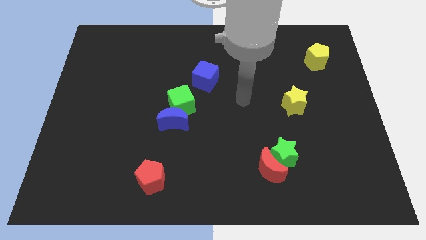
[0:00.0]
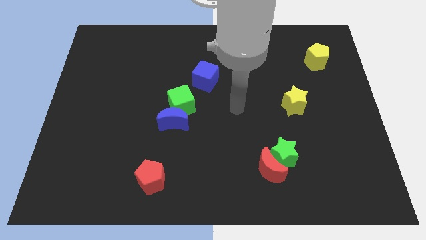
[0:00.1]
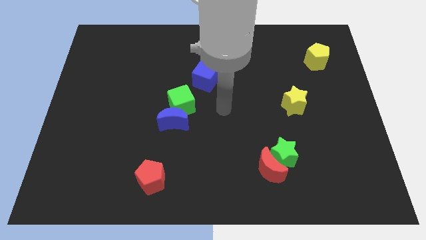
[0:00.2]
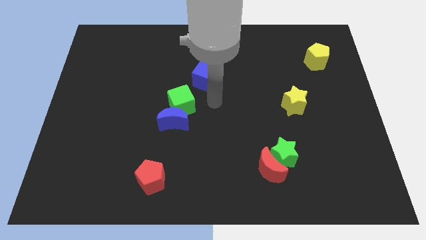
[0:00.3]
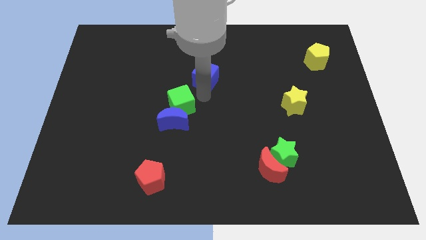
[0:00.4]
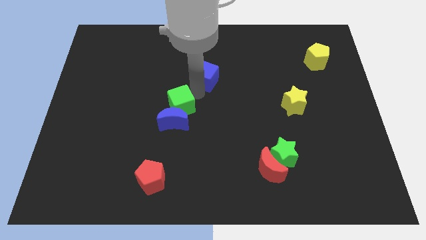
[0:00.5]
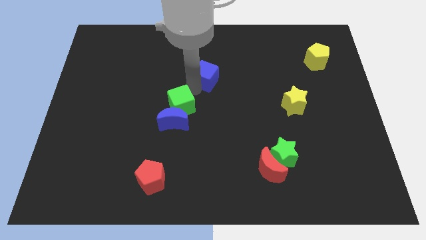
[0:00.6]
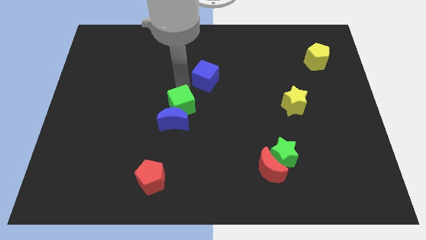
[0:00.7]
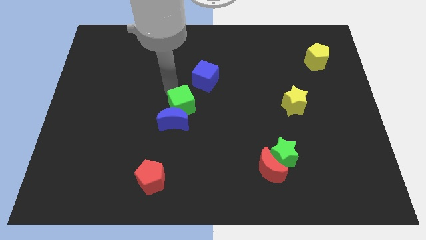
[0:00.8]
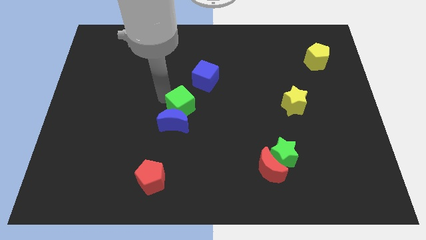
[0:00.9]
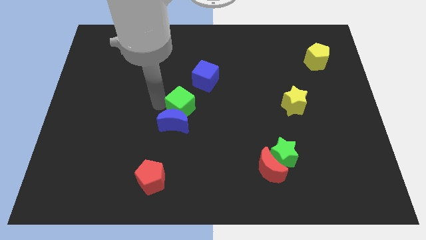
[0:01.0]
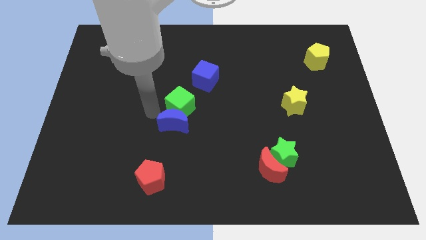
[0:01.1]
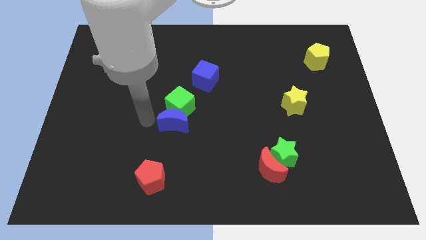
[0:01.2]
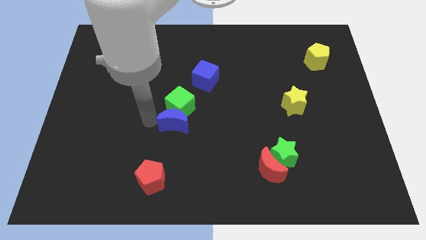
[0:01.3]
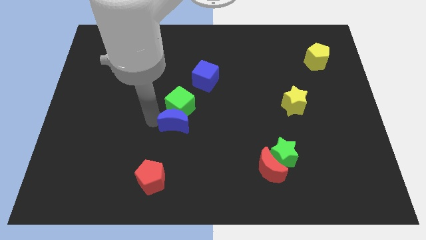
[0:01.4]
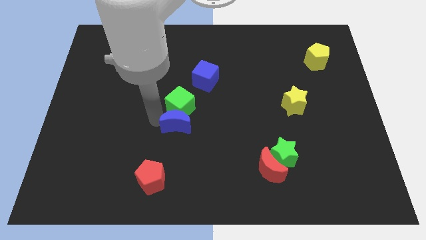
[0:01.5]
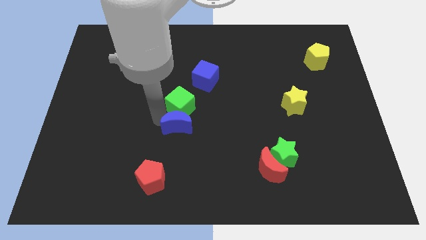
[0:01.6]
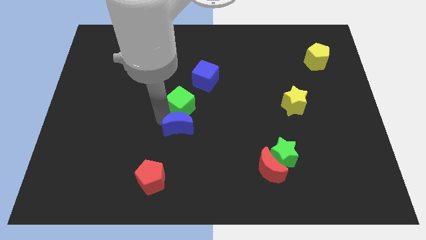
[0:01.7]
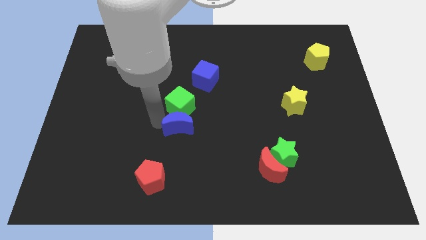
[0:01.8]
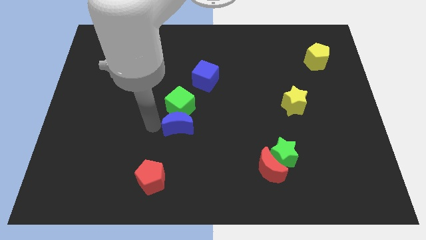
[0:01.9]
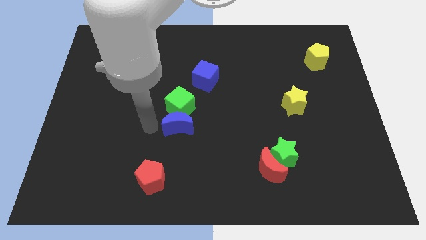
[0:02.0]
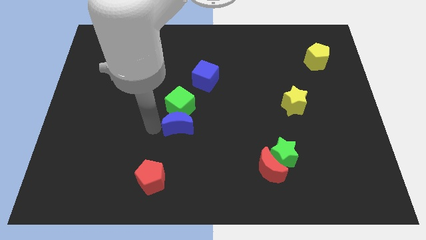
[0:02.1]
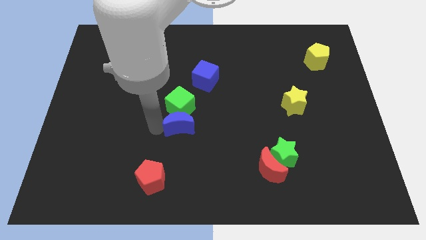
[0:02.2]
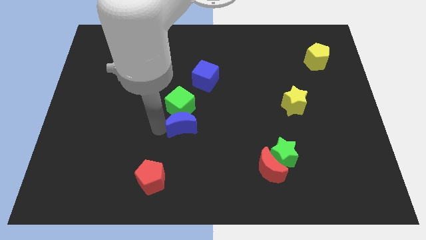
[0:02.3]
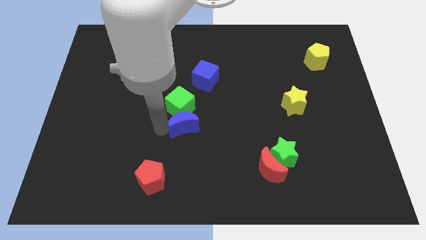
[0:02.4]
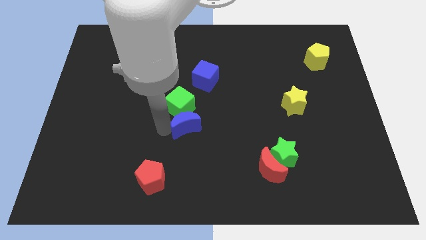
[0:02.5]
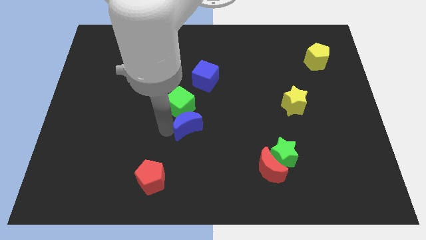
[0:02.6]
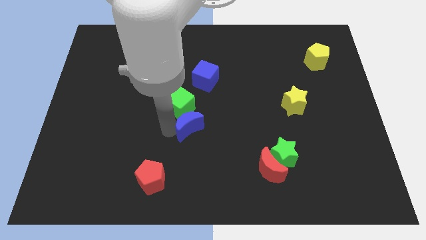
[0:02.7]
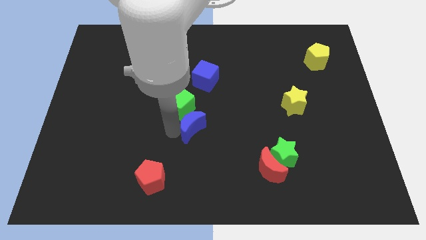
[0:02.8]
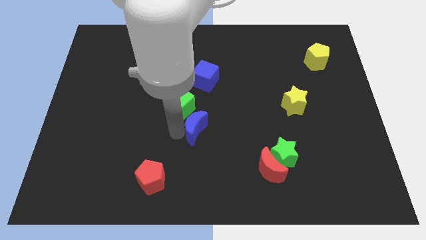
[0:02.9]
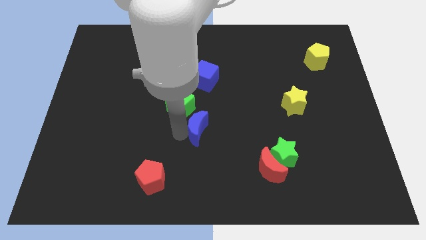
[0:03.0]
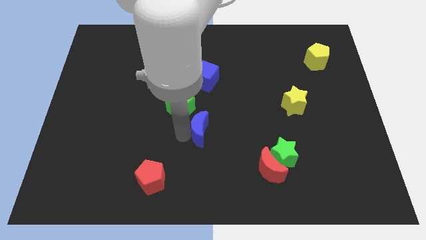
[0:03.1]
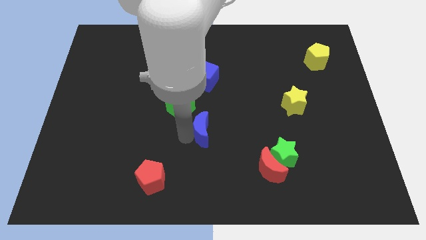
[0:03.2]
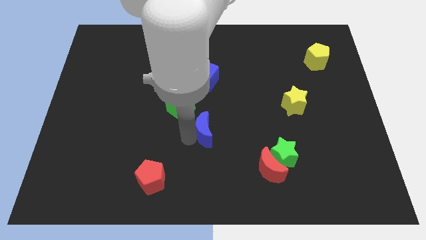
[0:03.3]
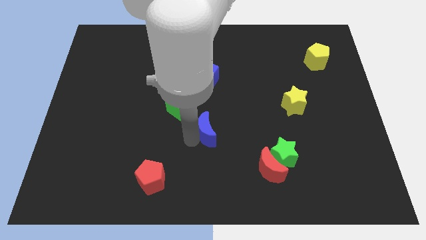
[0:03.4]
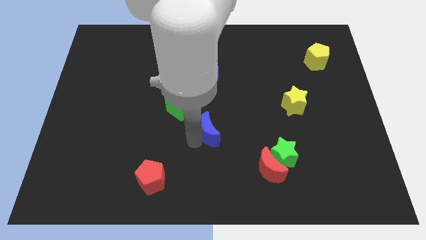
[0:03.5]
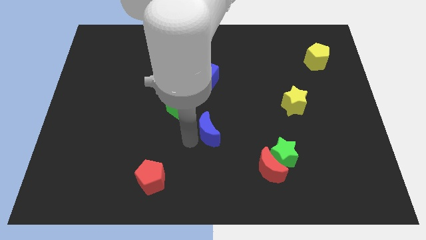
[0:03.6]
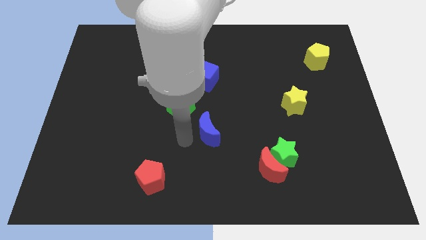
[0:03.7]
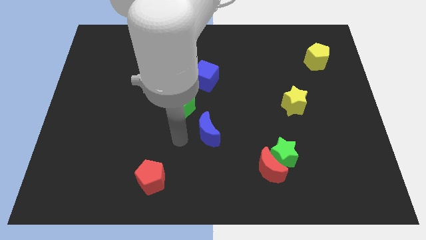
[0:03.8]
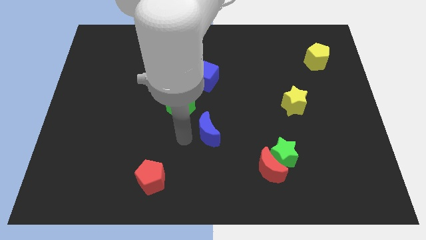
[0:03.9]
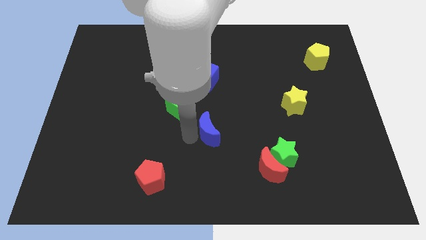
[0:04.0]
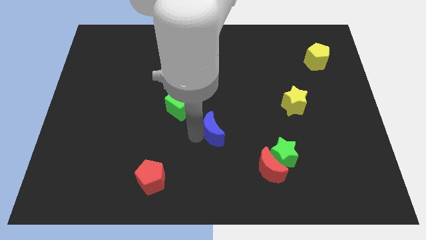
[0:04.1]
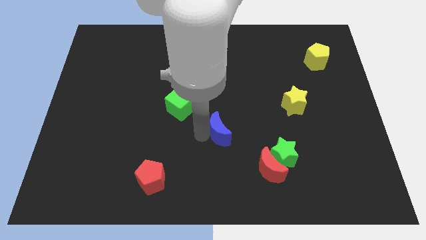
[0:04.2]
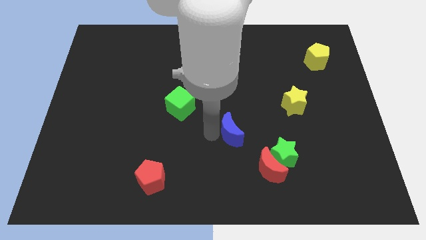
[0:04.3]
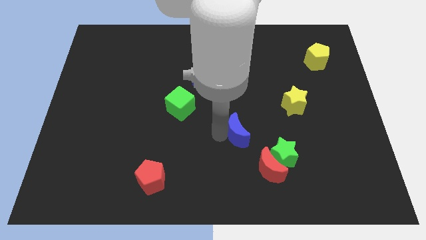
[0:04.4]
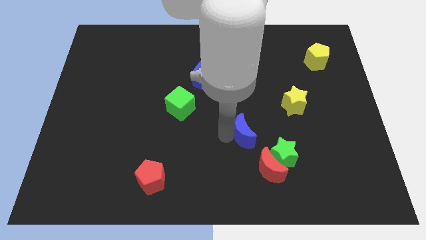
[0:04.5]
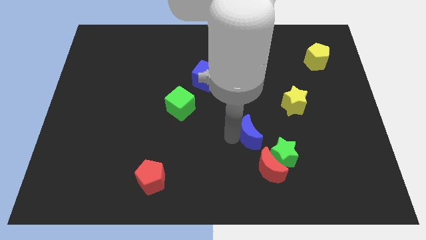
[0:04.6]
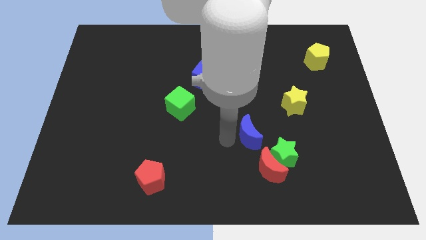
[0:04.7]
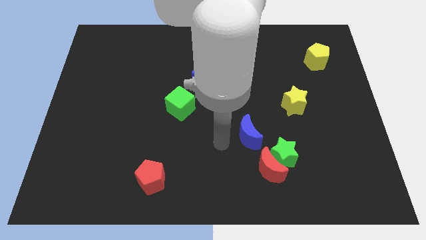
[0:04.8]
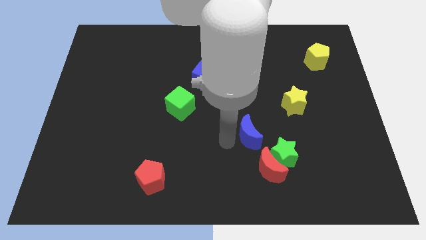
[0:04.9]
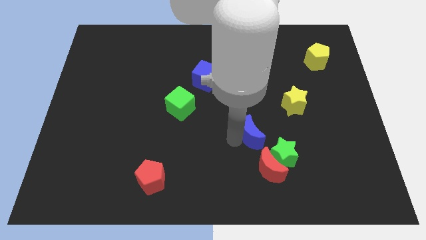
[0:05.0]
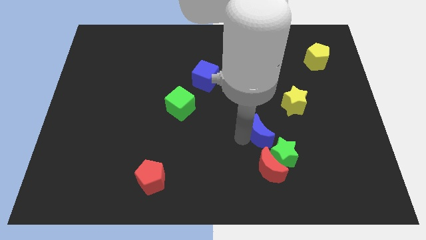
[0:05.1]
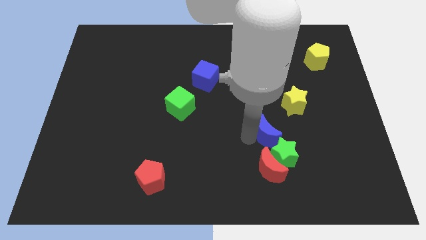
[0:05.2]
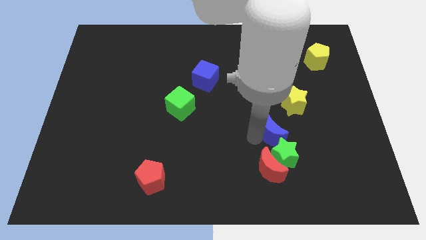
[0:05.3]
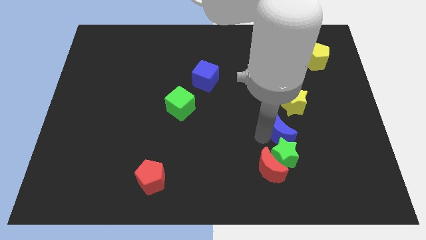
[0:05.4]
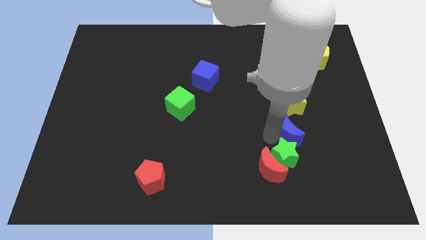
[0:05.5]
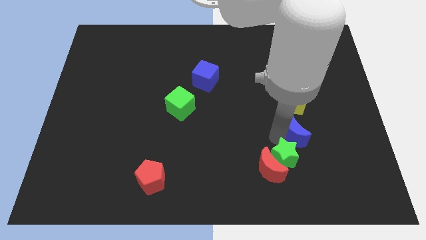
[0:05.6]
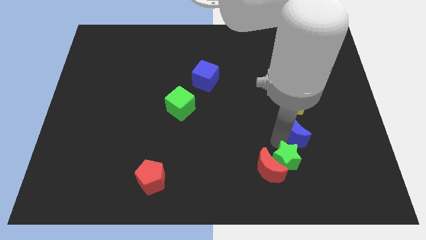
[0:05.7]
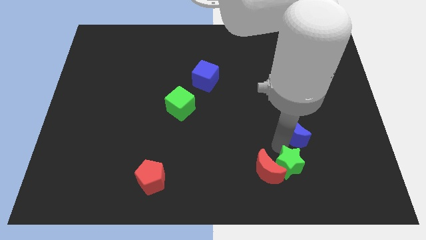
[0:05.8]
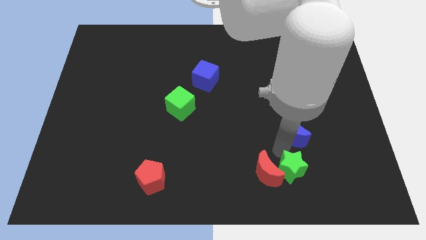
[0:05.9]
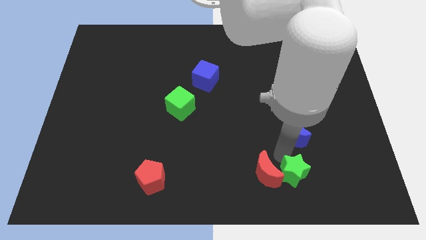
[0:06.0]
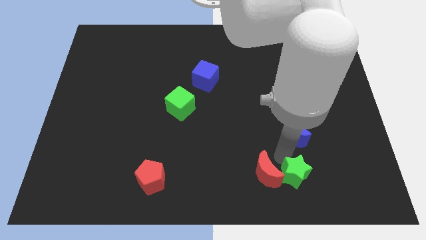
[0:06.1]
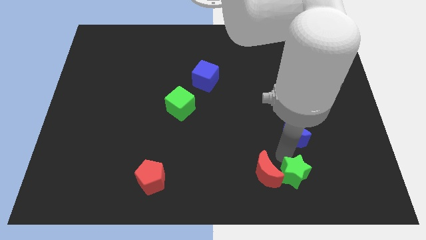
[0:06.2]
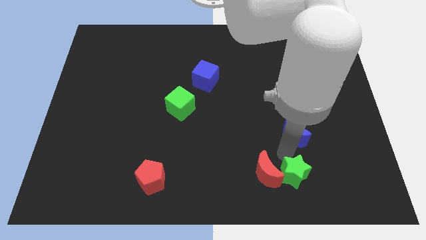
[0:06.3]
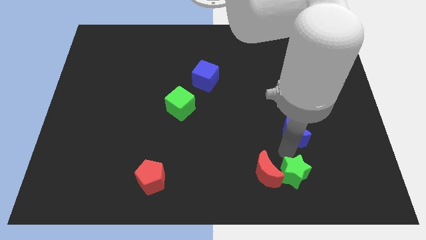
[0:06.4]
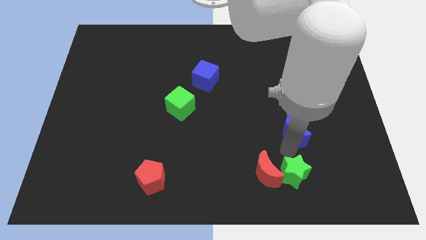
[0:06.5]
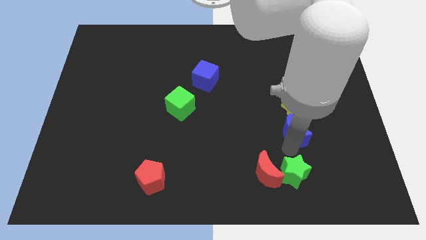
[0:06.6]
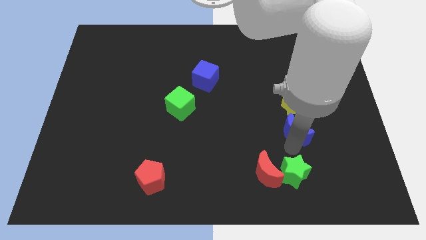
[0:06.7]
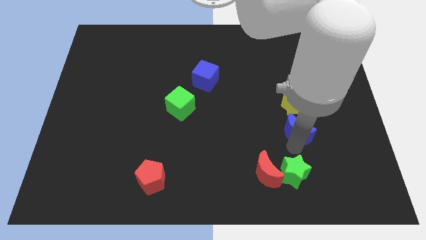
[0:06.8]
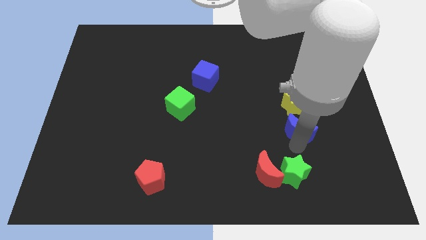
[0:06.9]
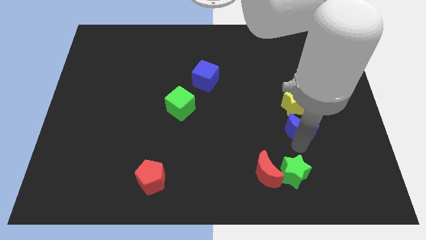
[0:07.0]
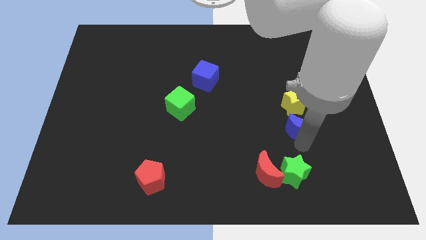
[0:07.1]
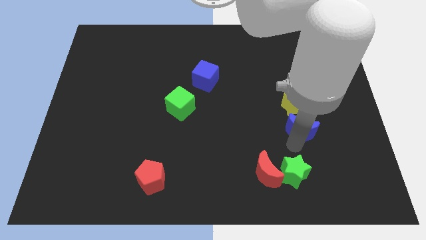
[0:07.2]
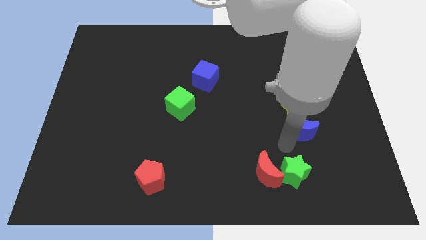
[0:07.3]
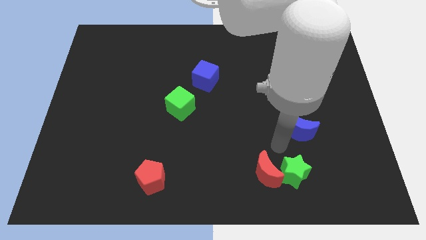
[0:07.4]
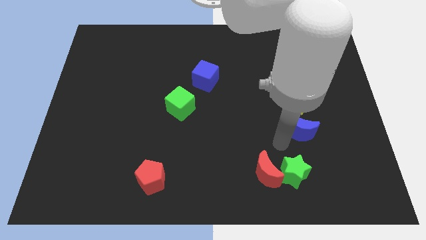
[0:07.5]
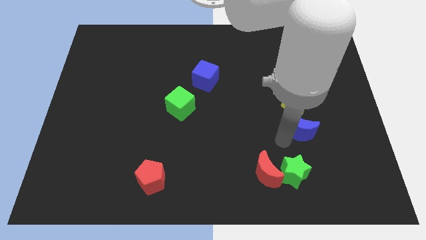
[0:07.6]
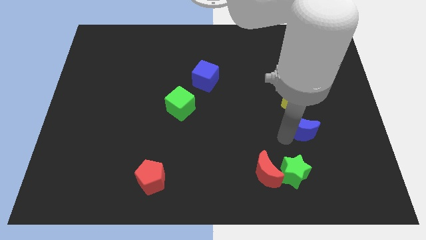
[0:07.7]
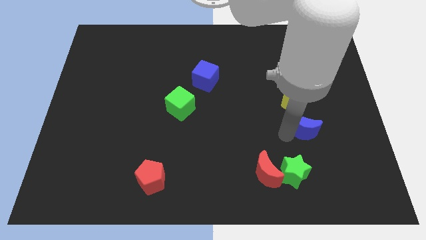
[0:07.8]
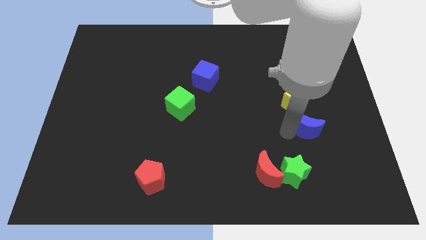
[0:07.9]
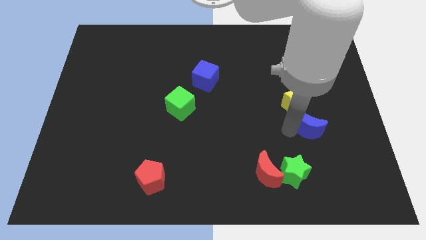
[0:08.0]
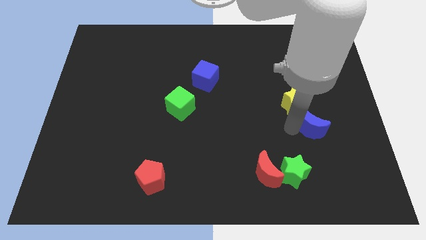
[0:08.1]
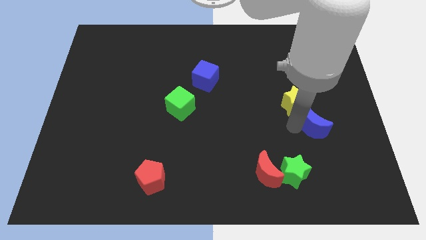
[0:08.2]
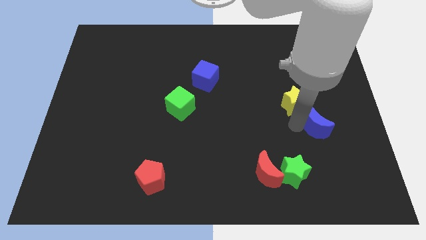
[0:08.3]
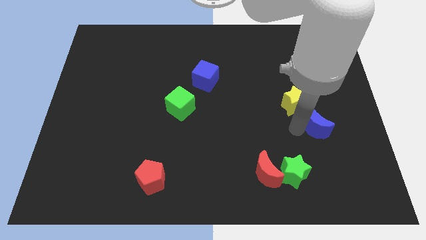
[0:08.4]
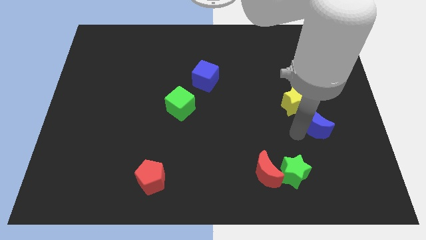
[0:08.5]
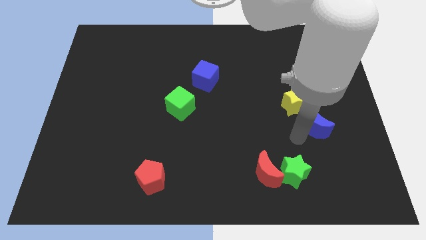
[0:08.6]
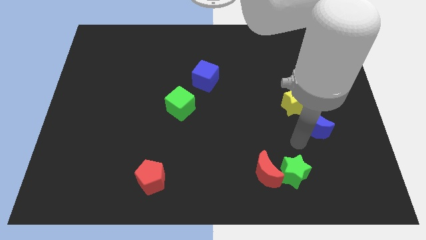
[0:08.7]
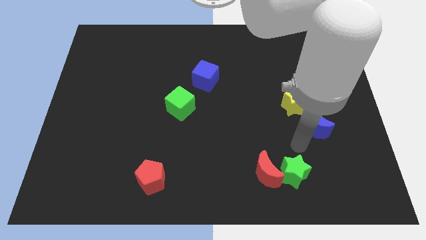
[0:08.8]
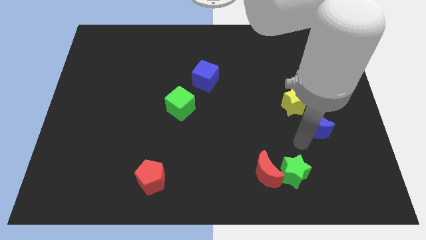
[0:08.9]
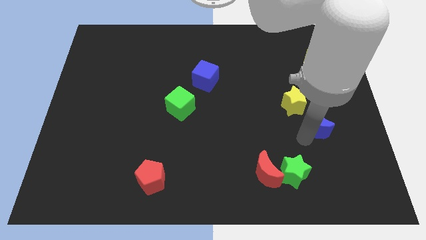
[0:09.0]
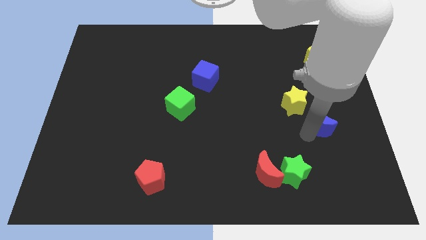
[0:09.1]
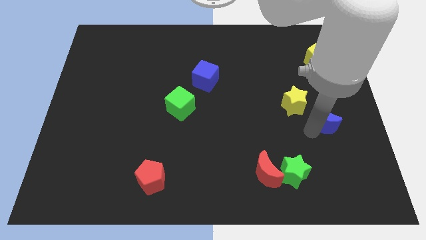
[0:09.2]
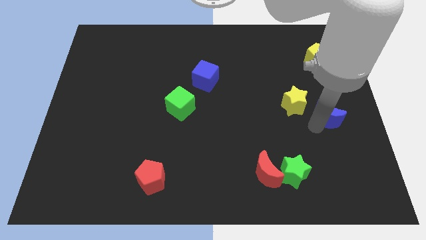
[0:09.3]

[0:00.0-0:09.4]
move the blue moon to the right side
